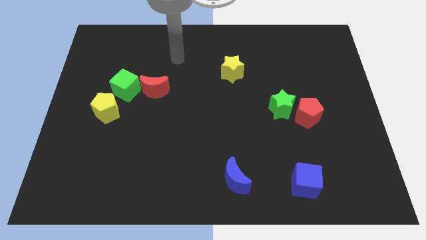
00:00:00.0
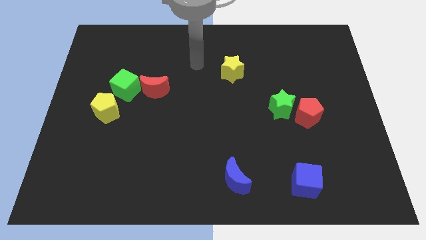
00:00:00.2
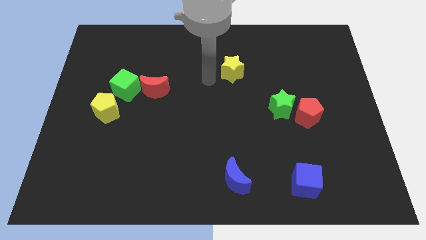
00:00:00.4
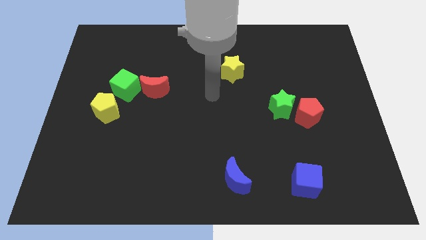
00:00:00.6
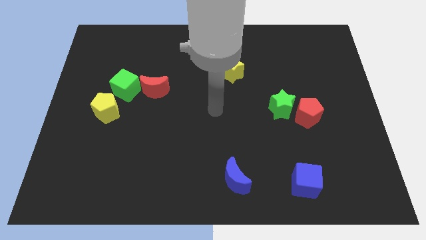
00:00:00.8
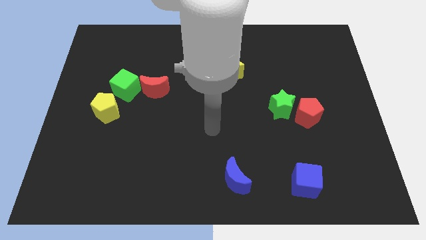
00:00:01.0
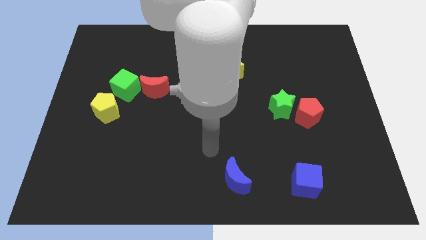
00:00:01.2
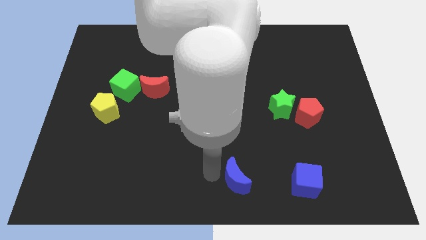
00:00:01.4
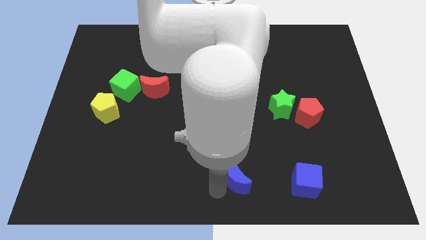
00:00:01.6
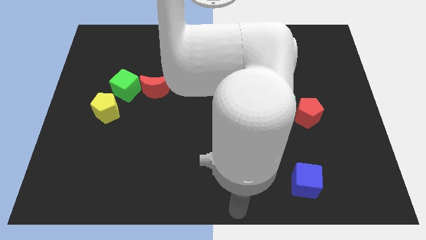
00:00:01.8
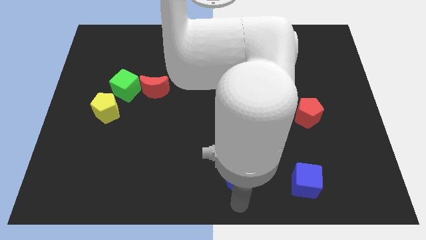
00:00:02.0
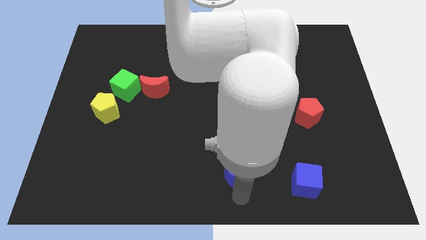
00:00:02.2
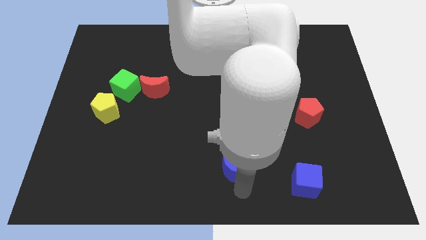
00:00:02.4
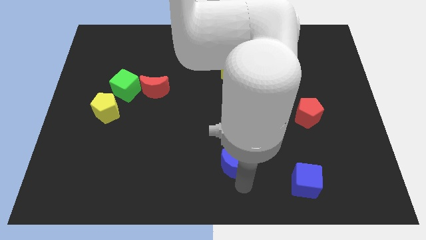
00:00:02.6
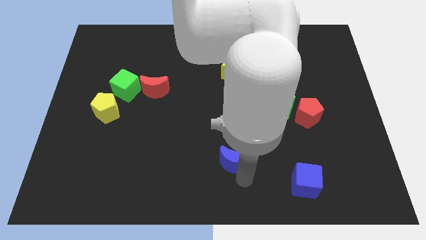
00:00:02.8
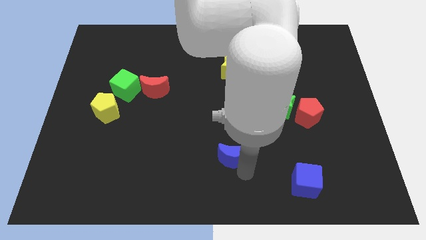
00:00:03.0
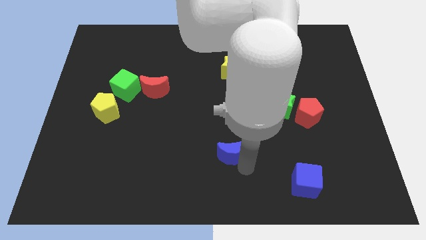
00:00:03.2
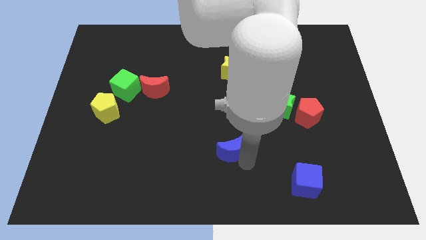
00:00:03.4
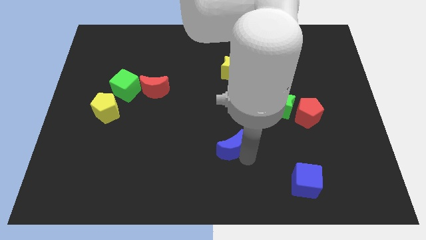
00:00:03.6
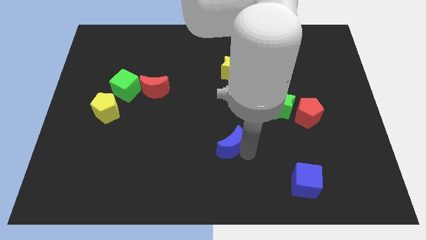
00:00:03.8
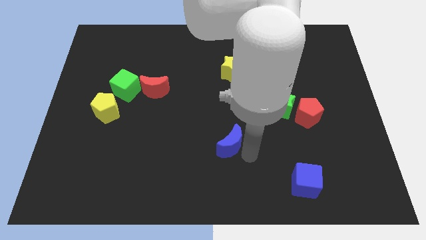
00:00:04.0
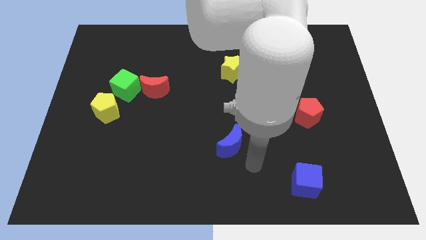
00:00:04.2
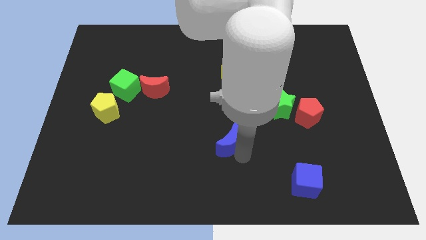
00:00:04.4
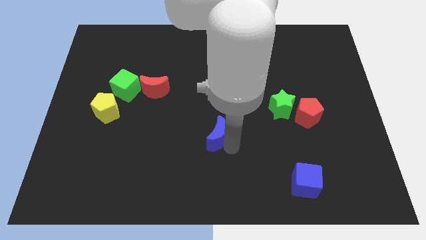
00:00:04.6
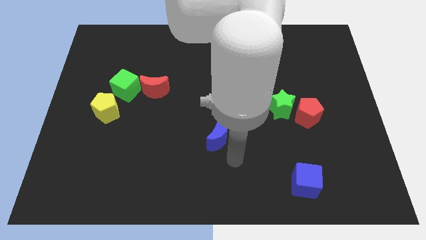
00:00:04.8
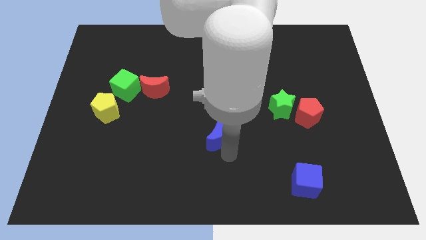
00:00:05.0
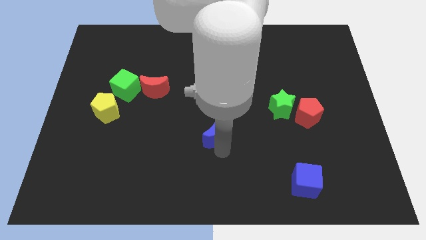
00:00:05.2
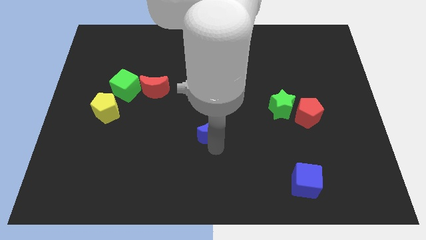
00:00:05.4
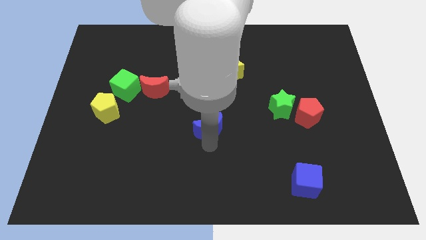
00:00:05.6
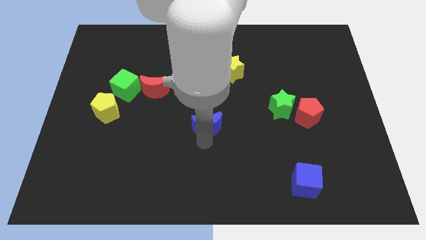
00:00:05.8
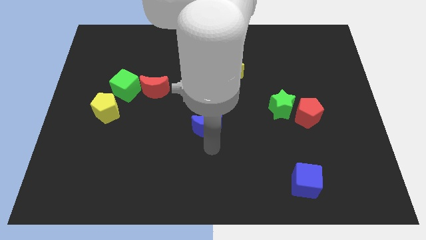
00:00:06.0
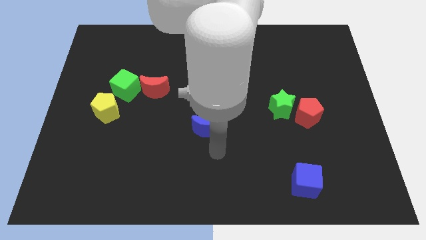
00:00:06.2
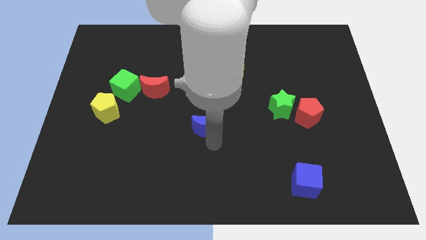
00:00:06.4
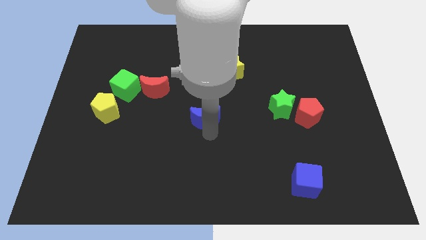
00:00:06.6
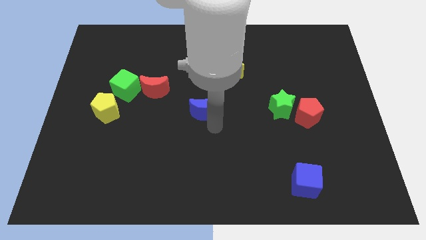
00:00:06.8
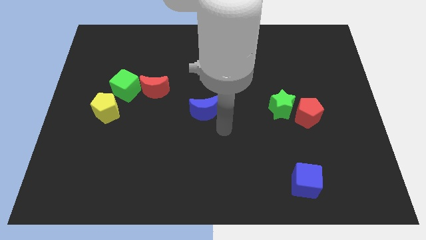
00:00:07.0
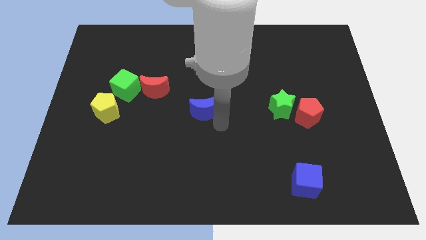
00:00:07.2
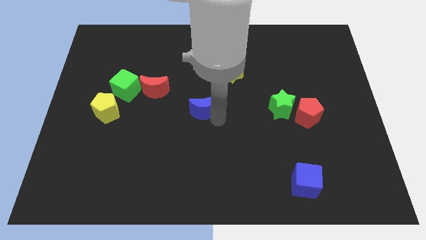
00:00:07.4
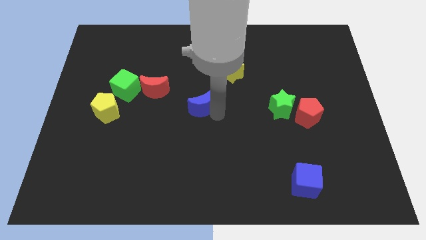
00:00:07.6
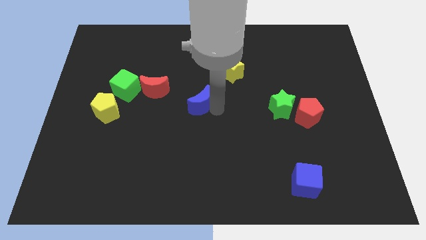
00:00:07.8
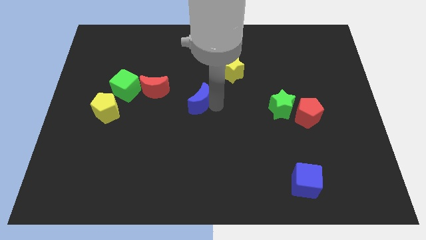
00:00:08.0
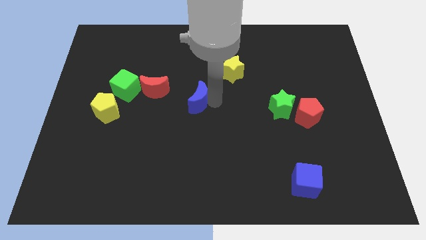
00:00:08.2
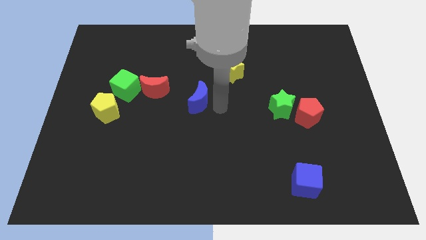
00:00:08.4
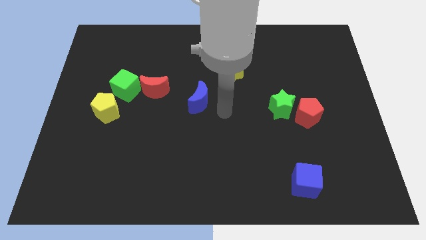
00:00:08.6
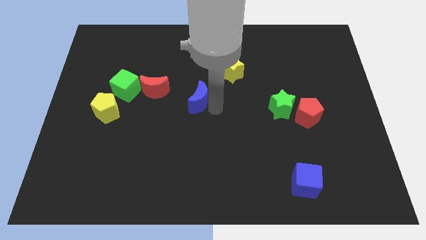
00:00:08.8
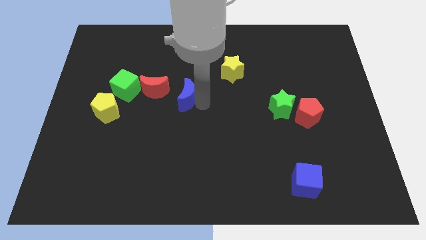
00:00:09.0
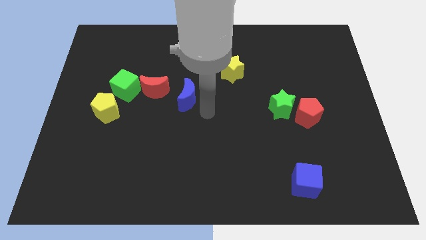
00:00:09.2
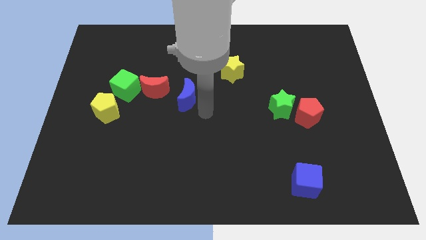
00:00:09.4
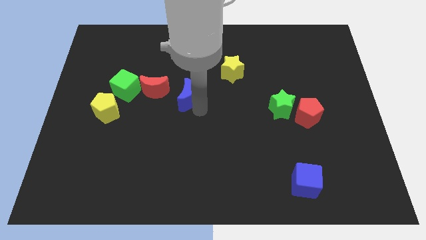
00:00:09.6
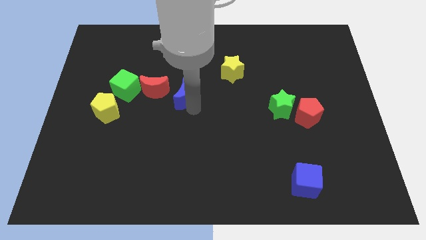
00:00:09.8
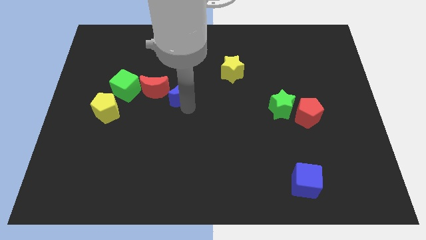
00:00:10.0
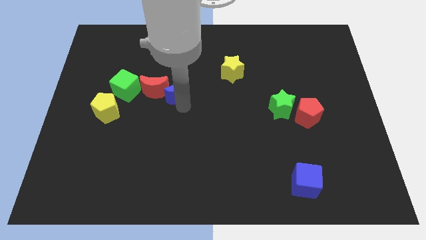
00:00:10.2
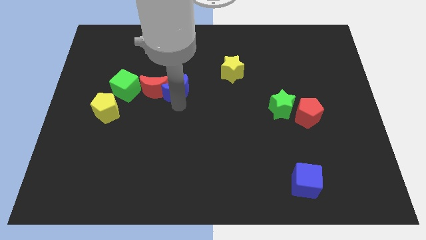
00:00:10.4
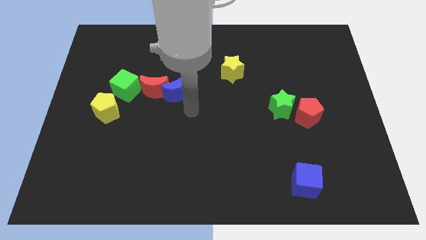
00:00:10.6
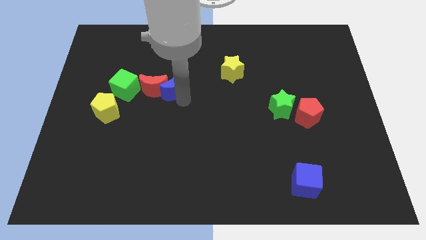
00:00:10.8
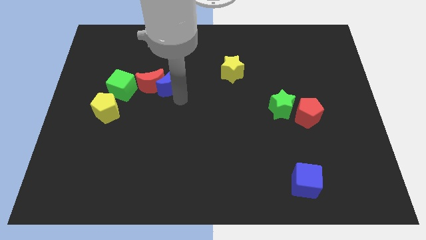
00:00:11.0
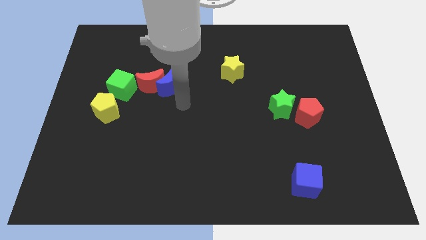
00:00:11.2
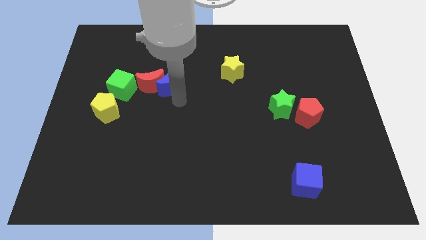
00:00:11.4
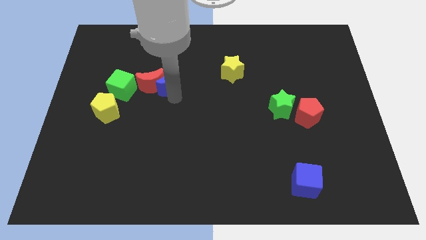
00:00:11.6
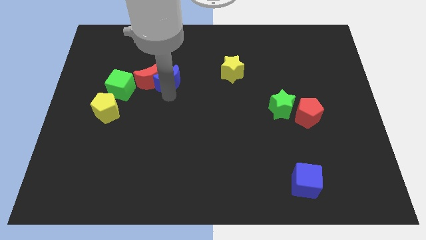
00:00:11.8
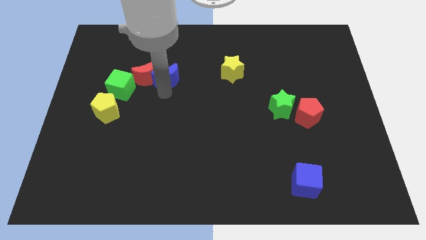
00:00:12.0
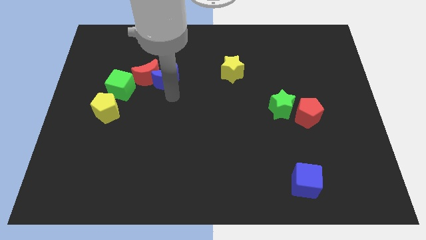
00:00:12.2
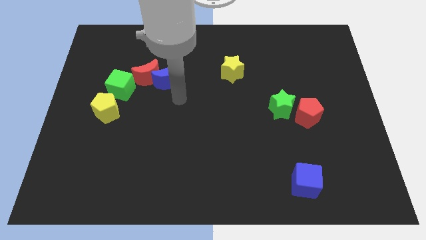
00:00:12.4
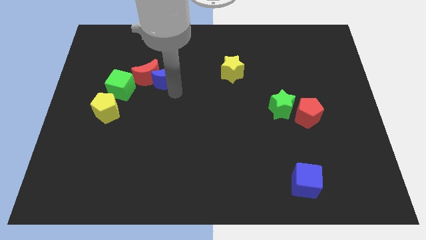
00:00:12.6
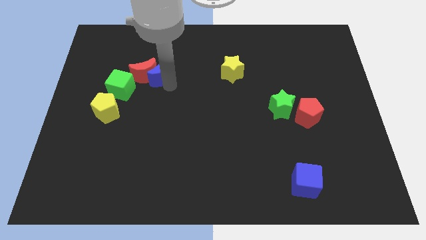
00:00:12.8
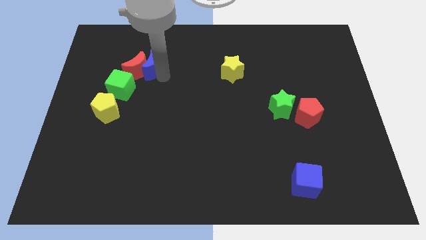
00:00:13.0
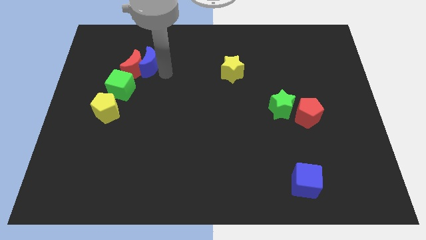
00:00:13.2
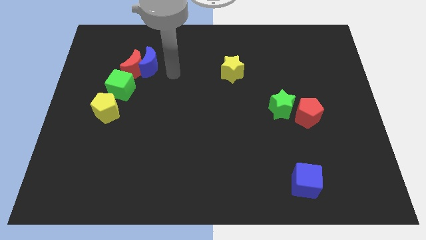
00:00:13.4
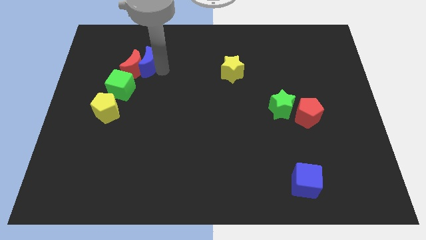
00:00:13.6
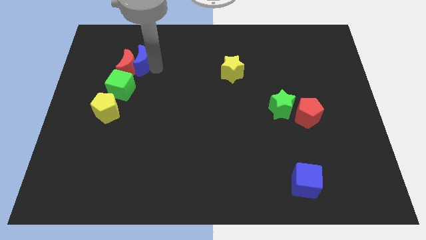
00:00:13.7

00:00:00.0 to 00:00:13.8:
put the blue moon to the top side of the green cube
